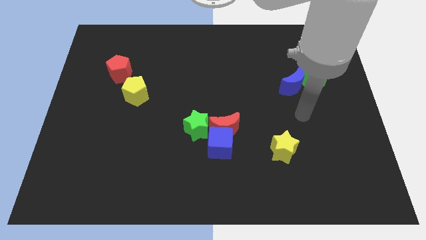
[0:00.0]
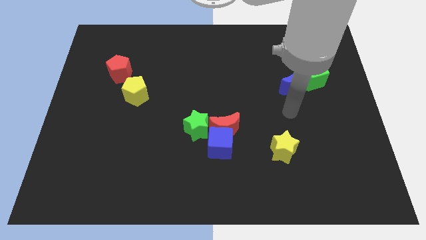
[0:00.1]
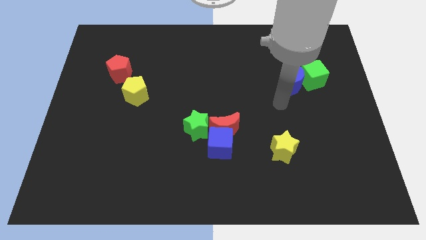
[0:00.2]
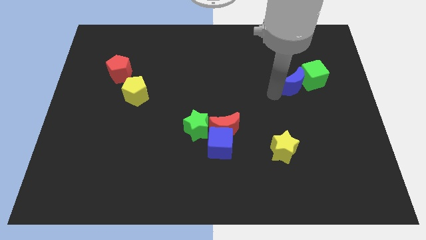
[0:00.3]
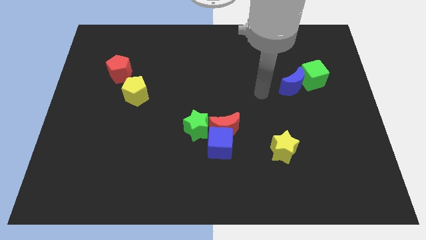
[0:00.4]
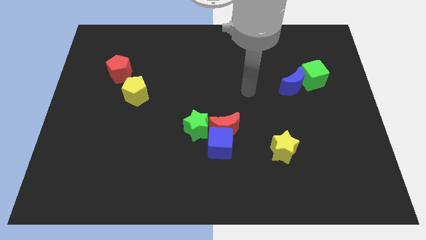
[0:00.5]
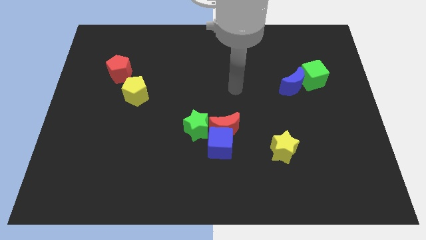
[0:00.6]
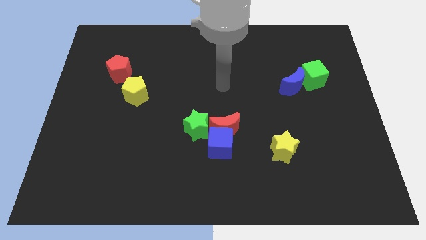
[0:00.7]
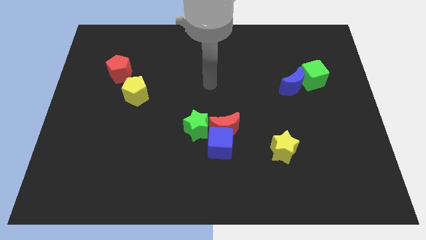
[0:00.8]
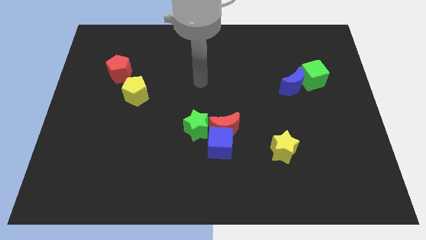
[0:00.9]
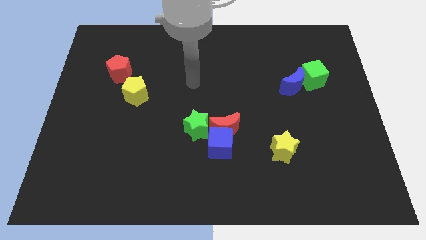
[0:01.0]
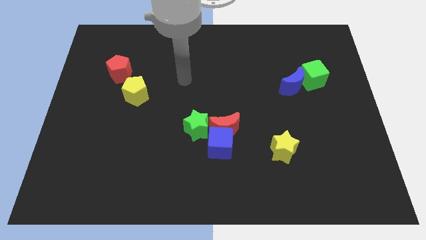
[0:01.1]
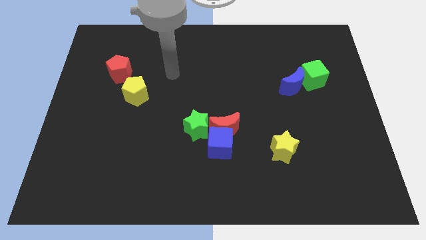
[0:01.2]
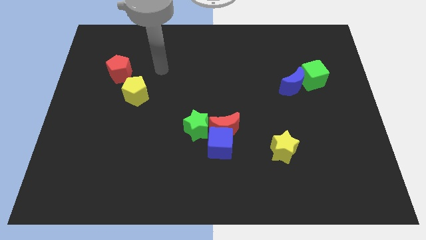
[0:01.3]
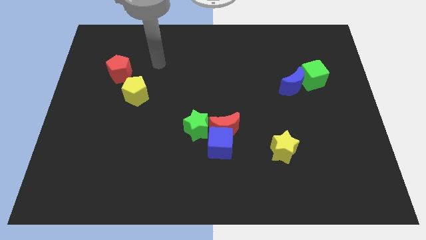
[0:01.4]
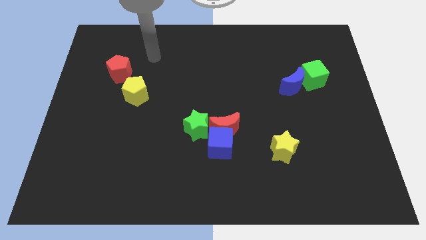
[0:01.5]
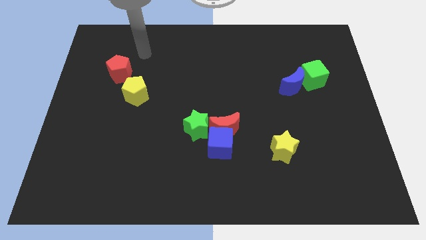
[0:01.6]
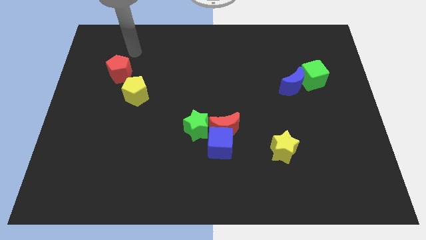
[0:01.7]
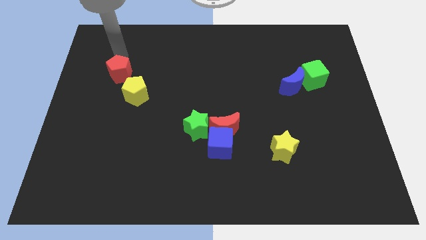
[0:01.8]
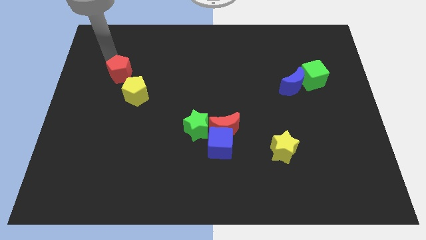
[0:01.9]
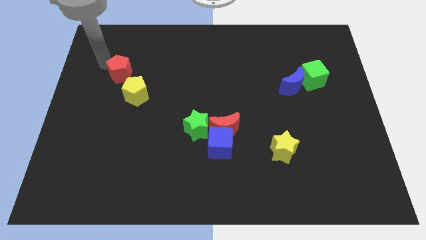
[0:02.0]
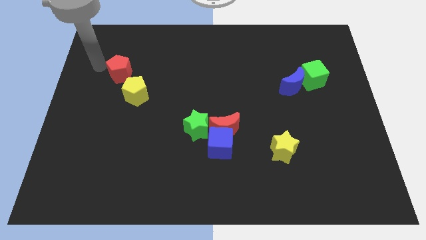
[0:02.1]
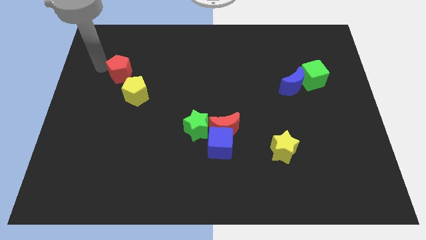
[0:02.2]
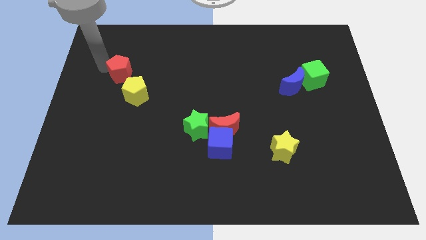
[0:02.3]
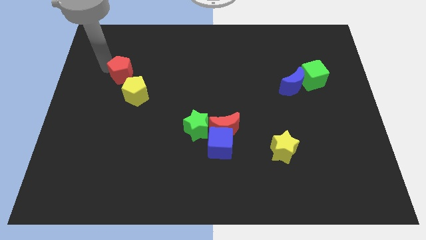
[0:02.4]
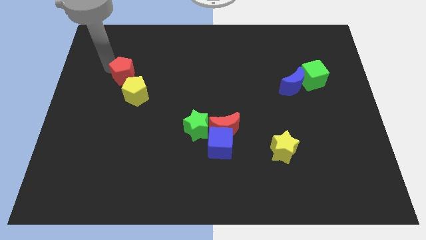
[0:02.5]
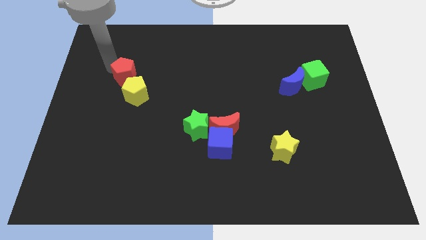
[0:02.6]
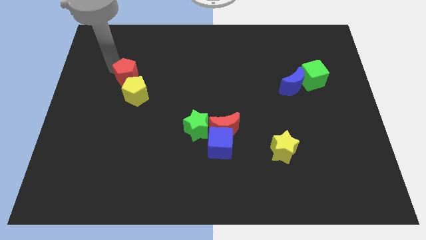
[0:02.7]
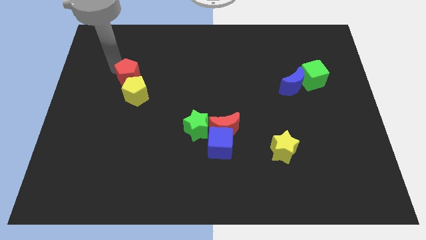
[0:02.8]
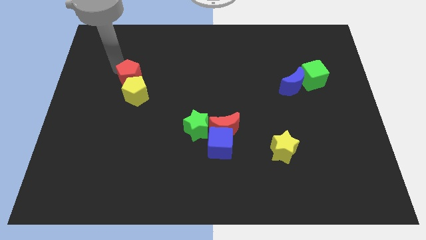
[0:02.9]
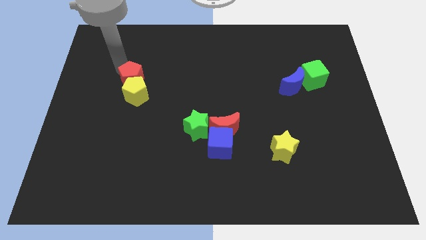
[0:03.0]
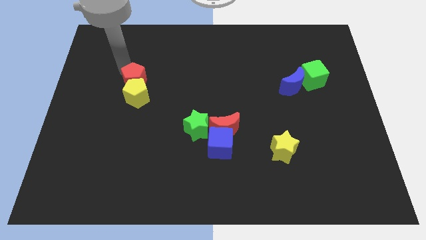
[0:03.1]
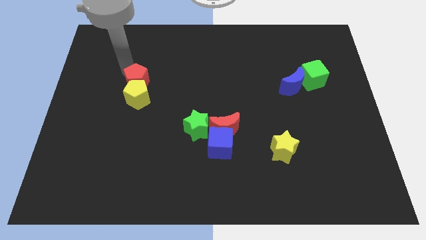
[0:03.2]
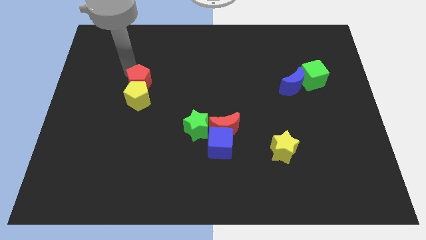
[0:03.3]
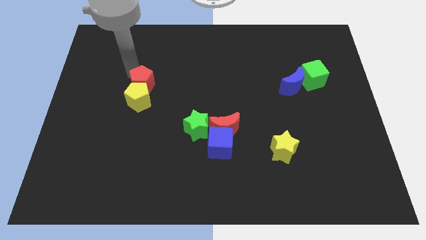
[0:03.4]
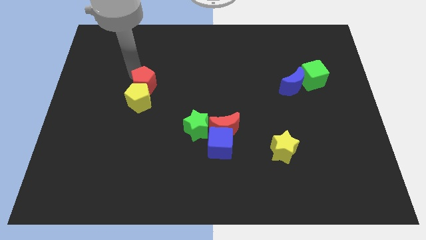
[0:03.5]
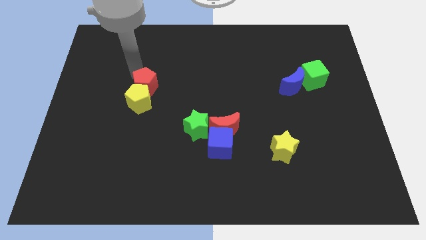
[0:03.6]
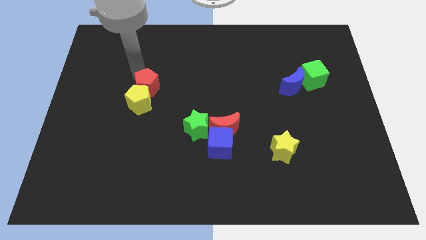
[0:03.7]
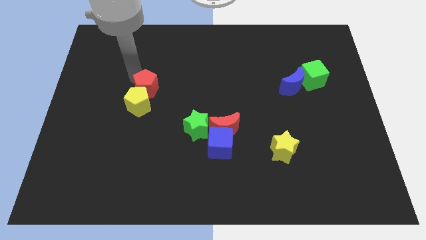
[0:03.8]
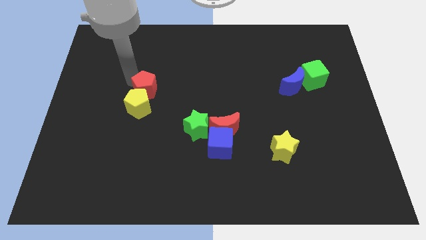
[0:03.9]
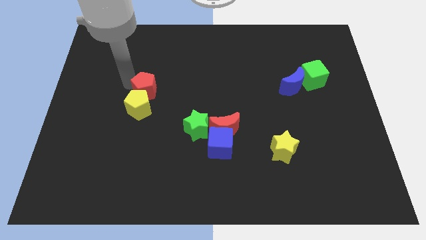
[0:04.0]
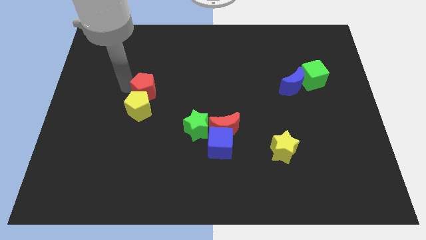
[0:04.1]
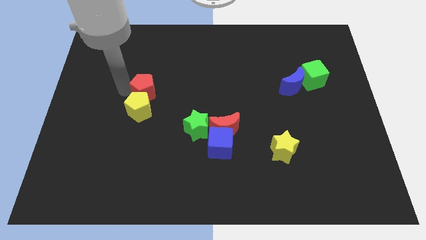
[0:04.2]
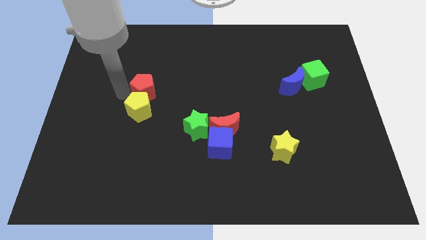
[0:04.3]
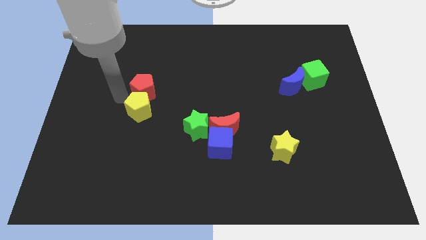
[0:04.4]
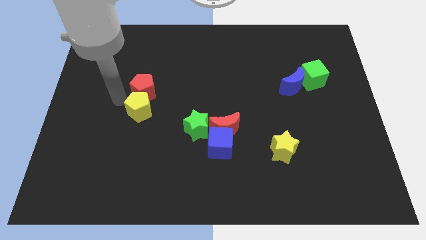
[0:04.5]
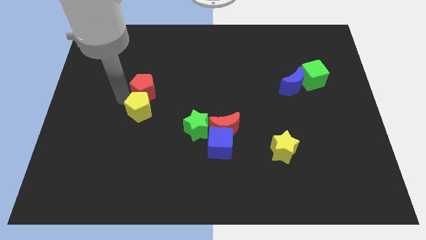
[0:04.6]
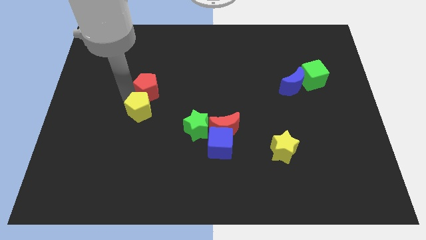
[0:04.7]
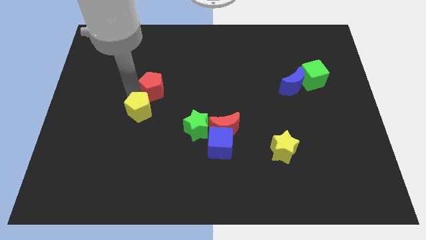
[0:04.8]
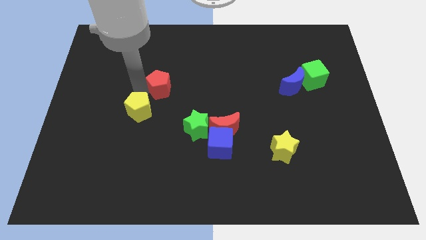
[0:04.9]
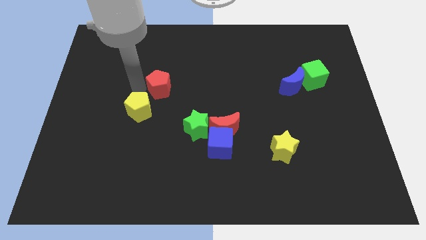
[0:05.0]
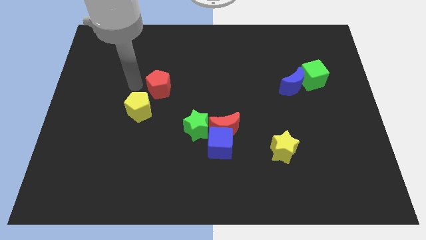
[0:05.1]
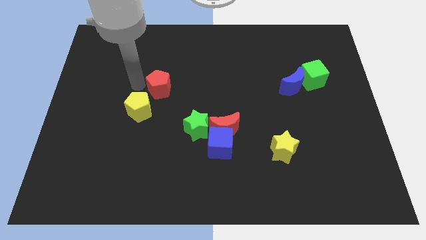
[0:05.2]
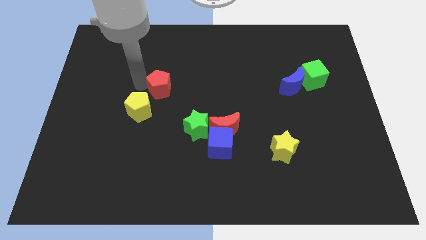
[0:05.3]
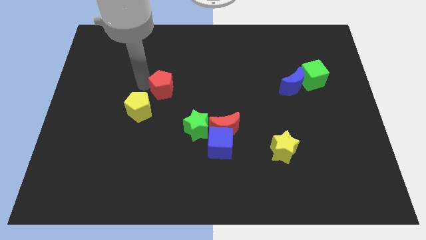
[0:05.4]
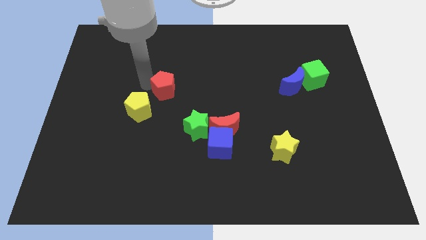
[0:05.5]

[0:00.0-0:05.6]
slide the red pentagon to the middle

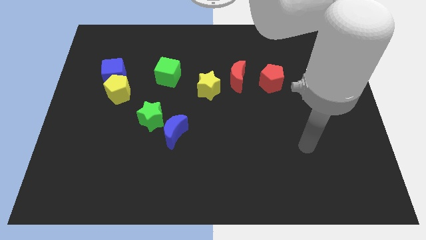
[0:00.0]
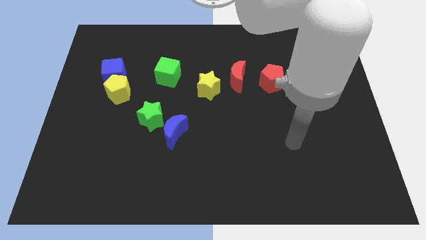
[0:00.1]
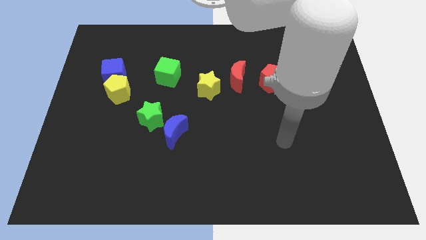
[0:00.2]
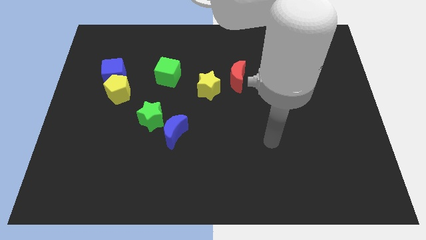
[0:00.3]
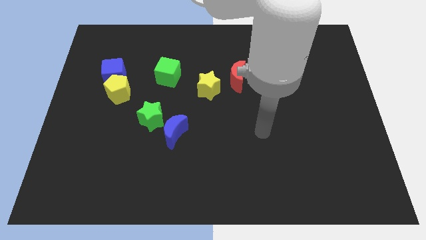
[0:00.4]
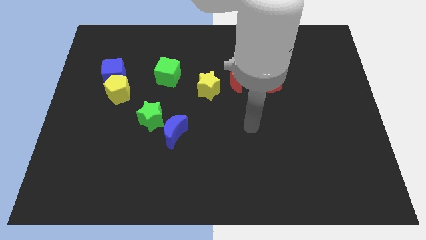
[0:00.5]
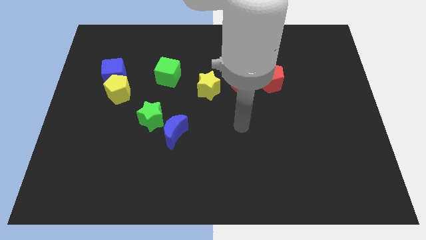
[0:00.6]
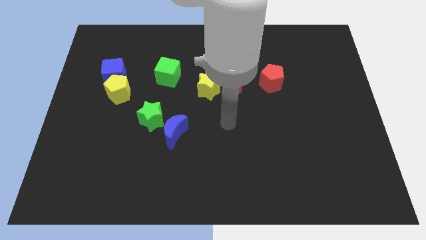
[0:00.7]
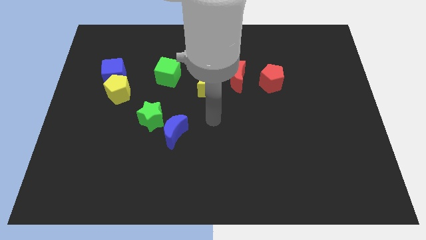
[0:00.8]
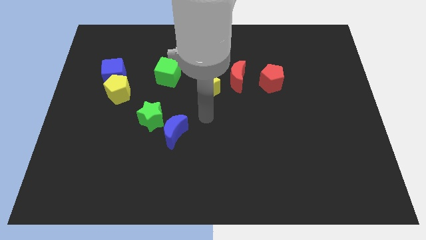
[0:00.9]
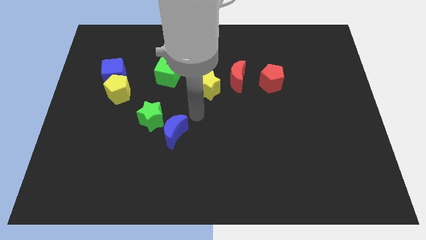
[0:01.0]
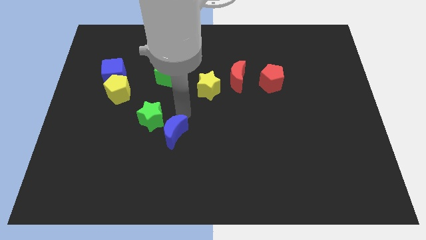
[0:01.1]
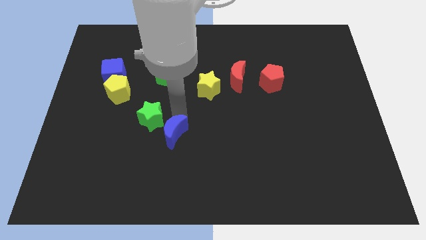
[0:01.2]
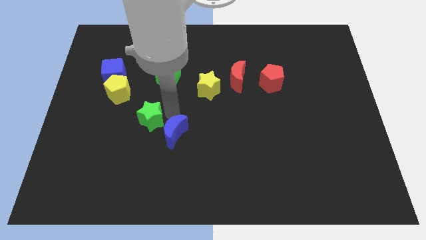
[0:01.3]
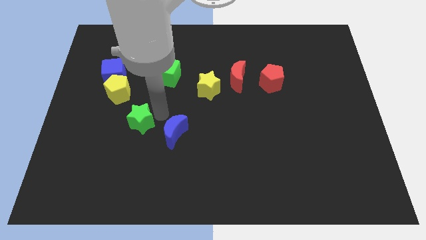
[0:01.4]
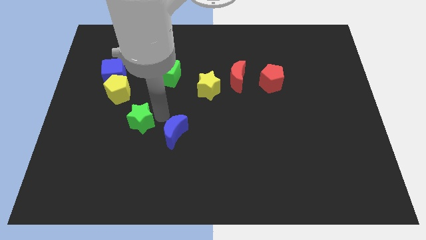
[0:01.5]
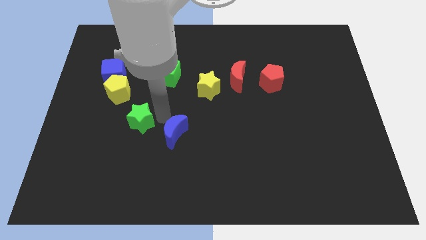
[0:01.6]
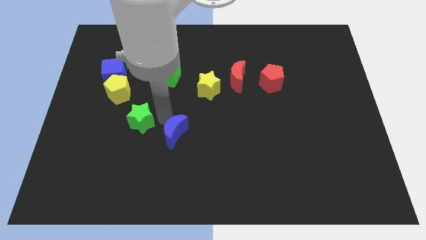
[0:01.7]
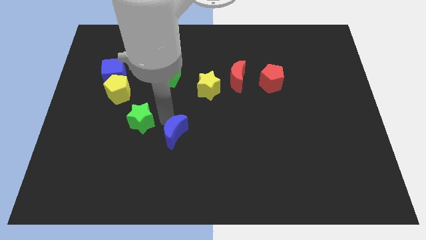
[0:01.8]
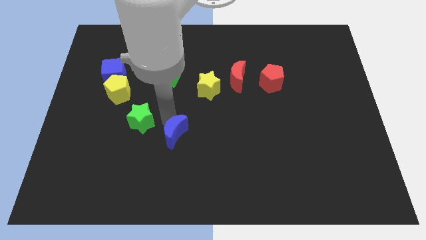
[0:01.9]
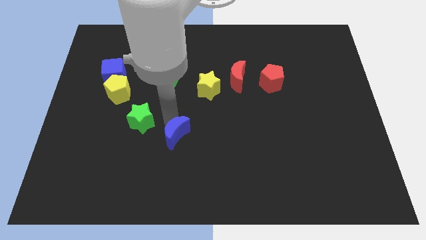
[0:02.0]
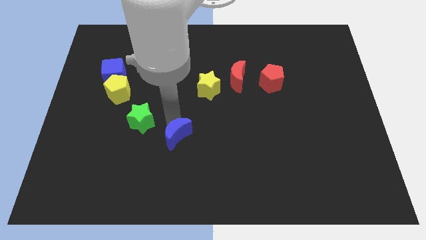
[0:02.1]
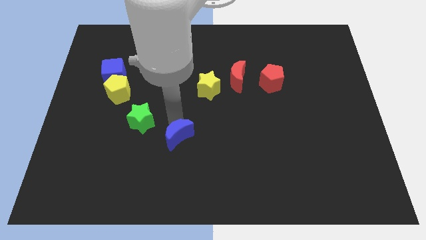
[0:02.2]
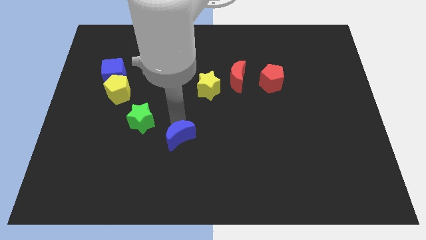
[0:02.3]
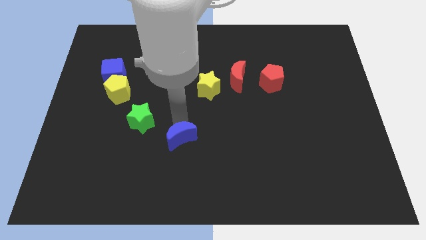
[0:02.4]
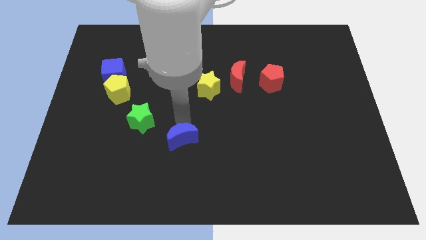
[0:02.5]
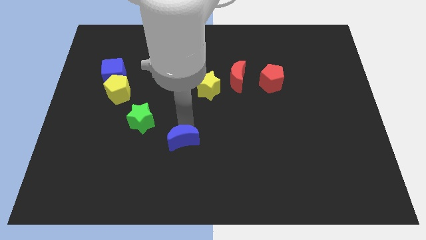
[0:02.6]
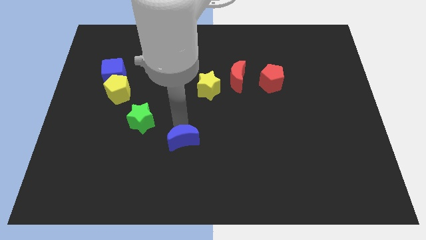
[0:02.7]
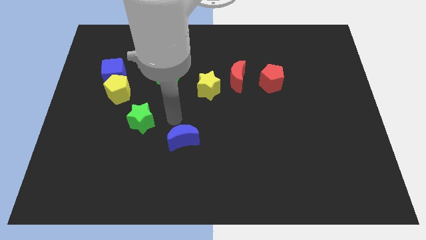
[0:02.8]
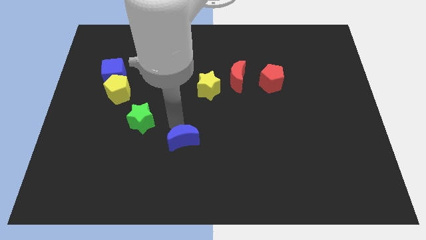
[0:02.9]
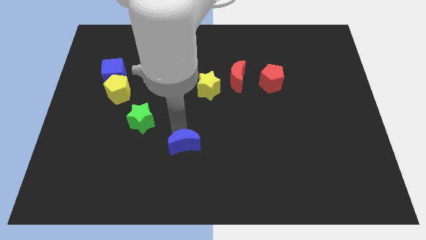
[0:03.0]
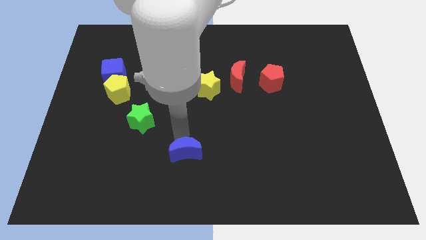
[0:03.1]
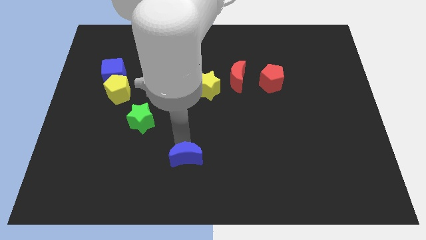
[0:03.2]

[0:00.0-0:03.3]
push the blue moon to the bottom side
